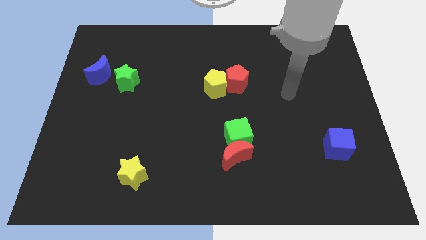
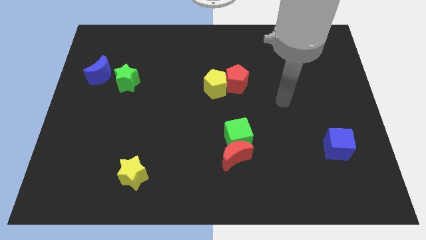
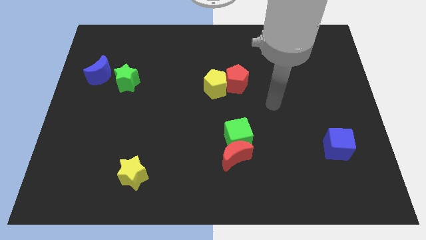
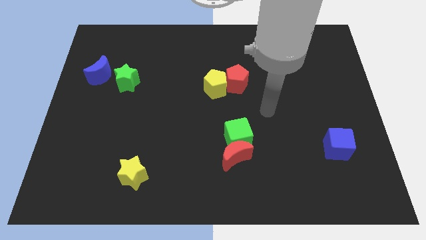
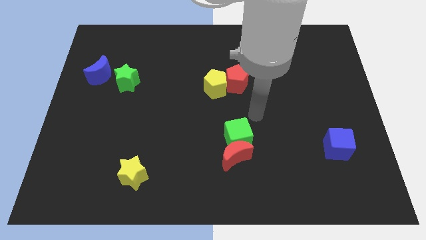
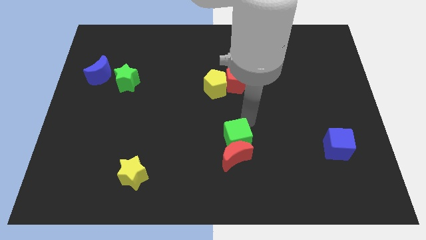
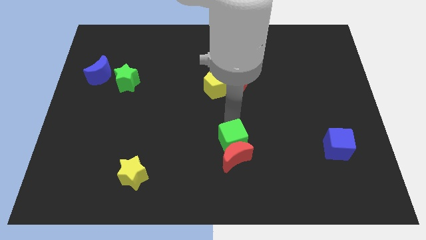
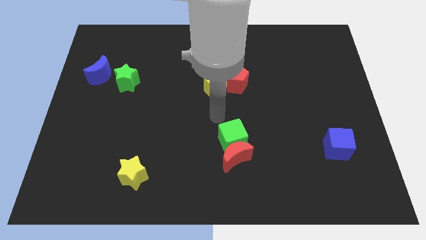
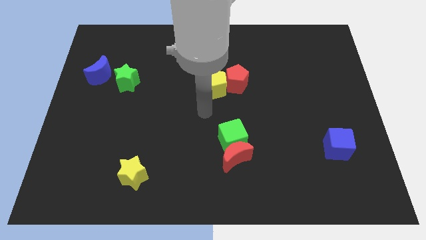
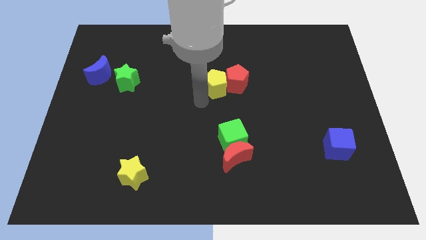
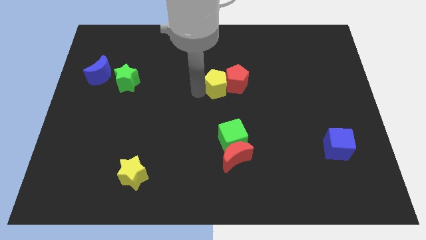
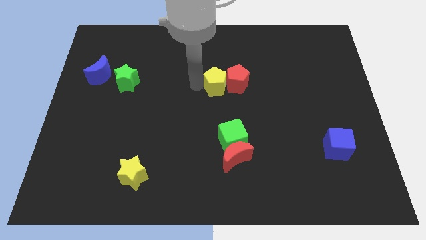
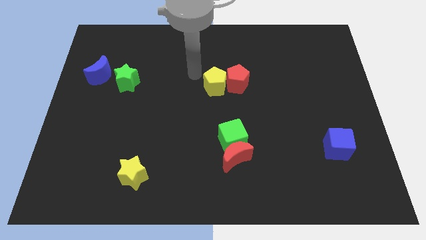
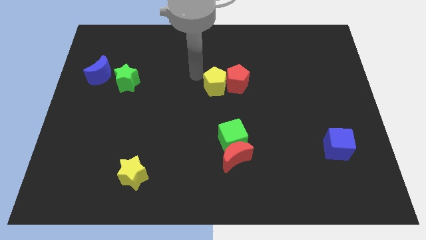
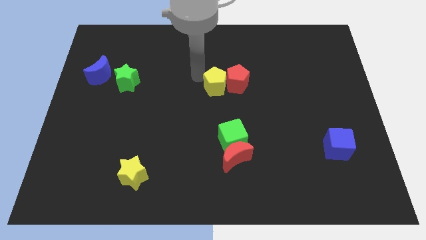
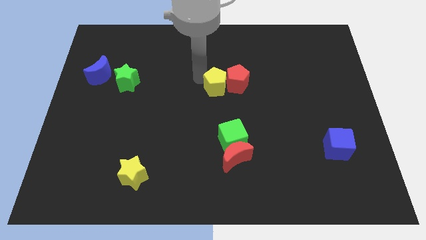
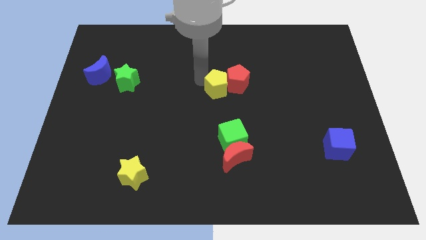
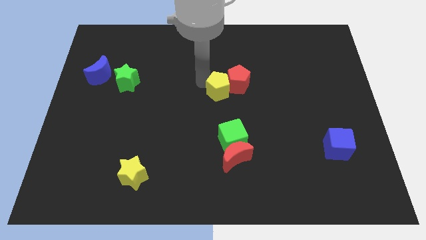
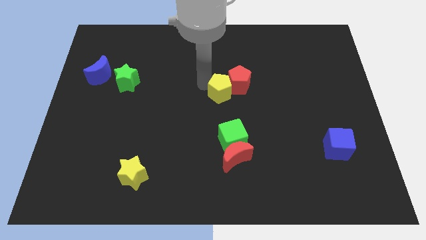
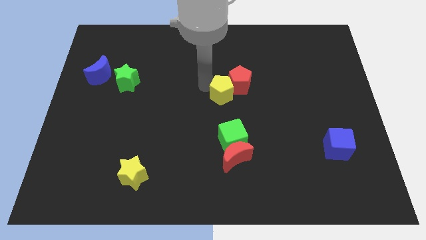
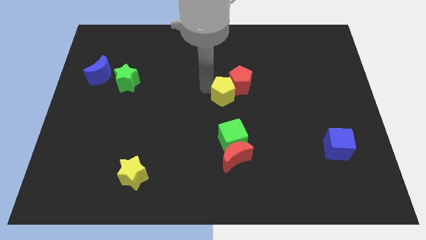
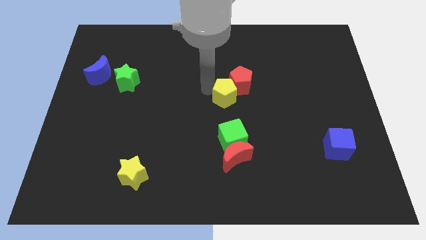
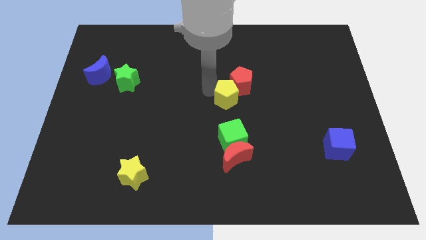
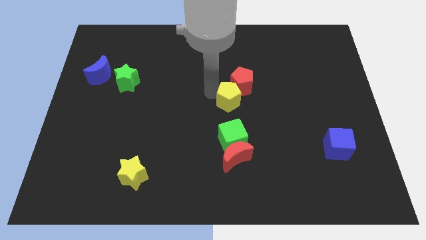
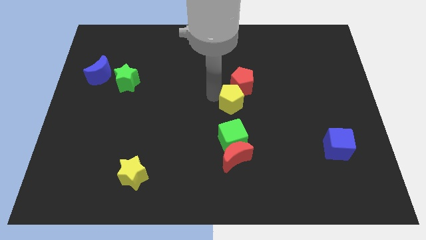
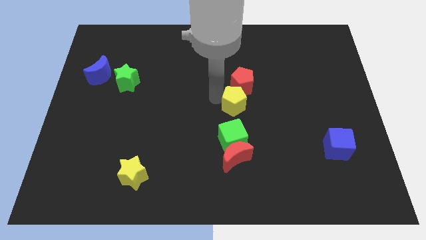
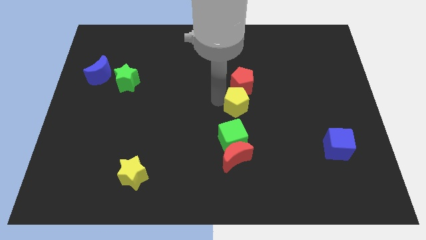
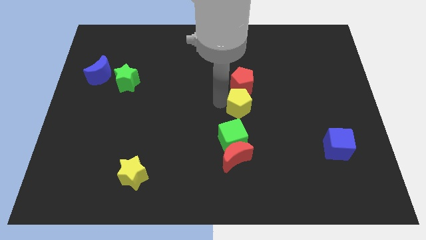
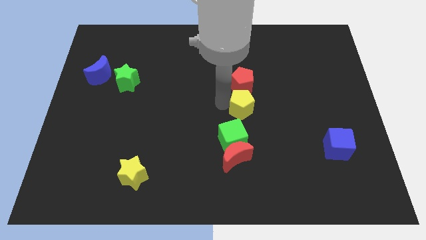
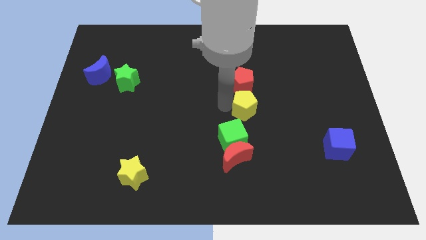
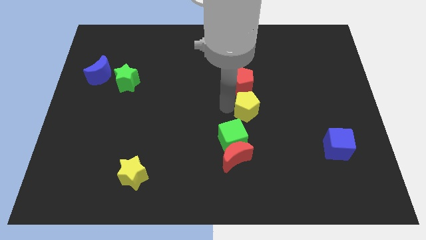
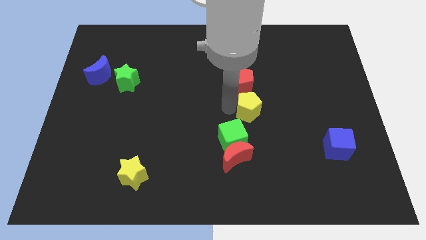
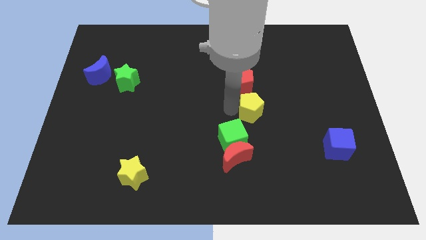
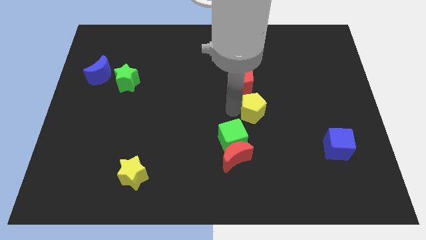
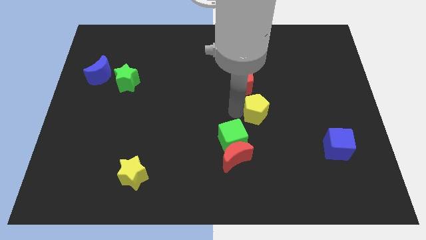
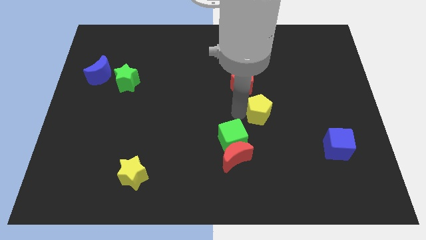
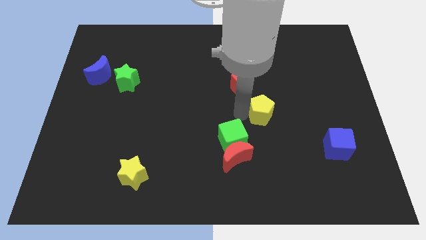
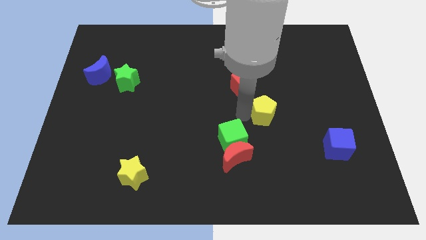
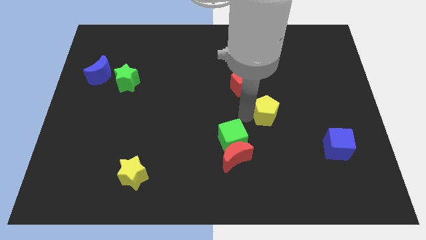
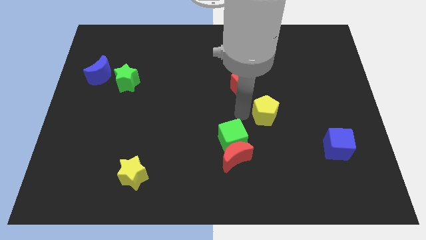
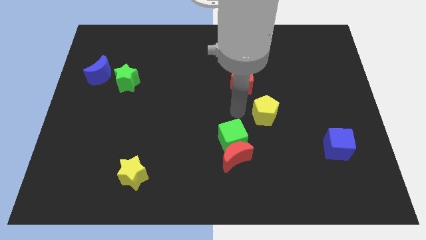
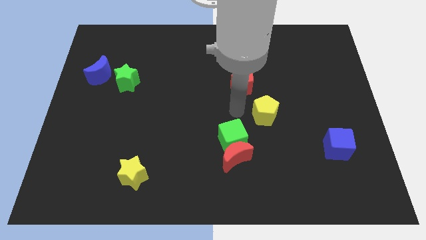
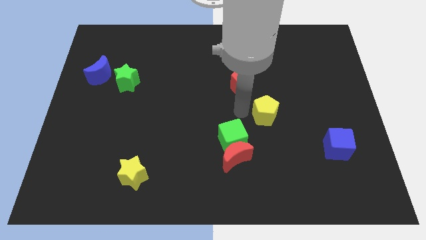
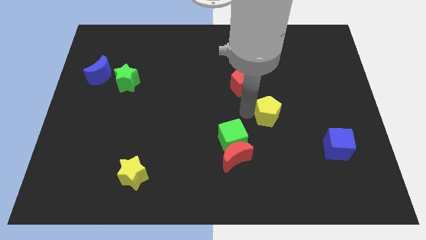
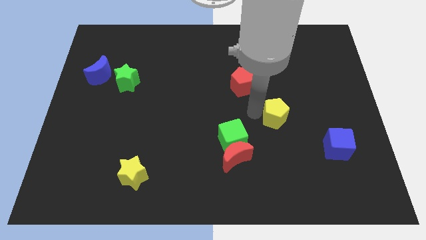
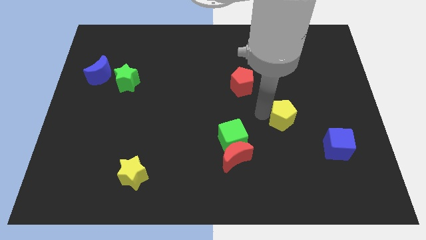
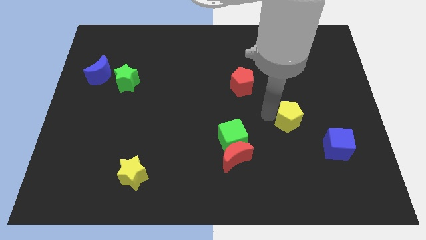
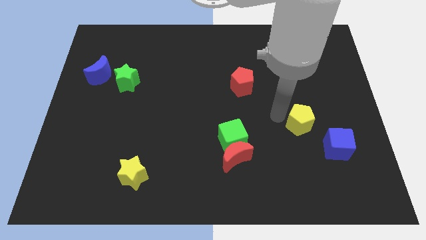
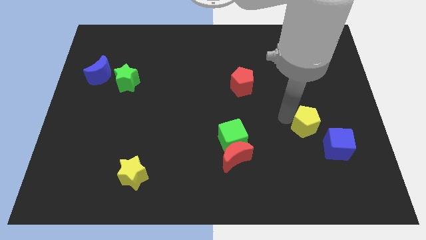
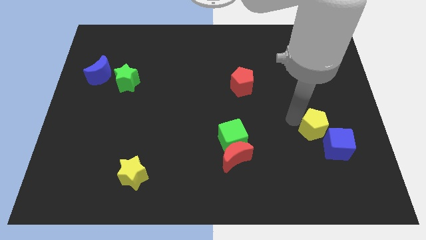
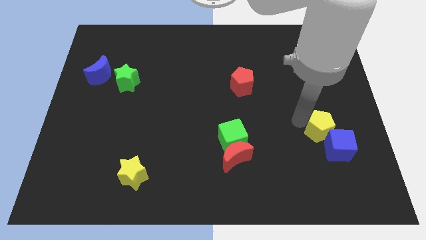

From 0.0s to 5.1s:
put the yellow pentagon towards the blue cube

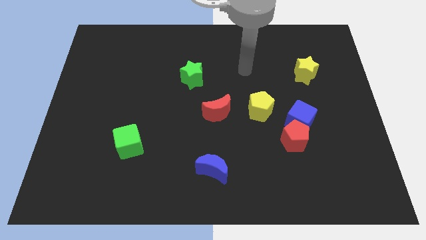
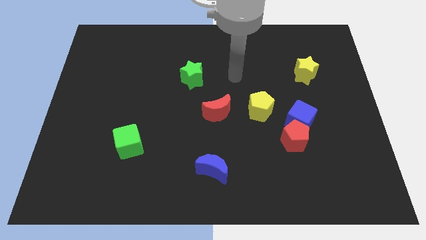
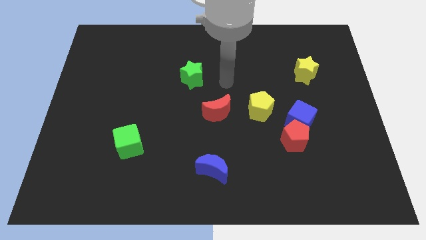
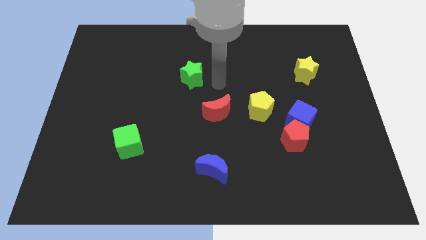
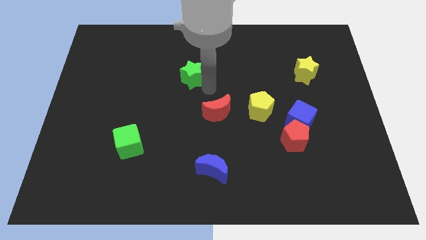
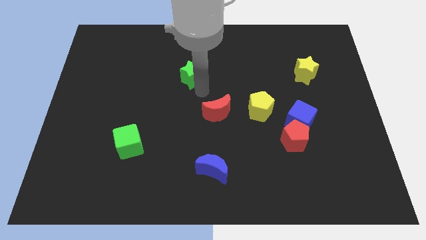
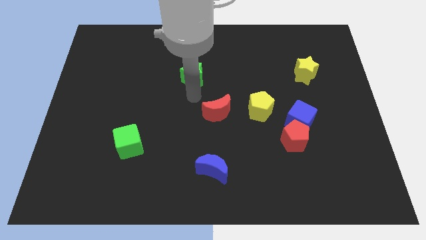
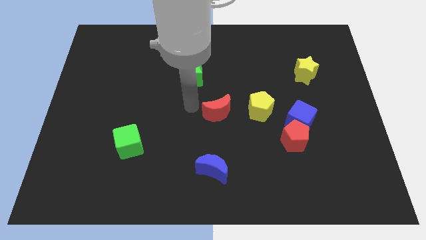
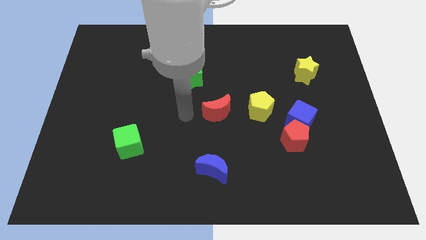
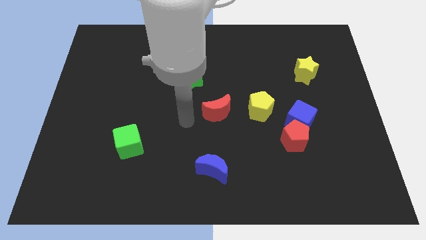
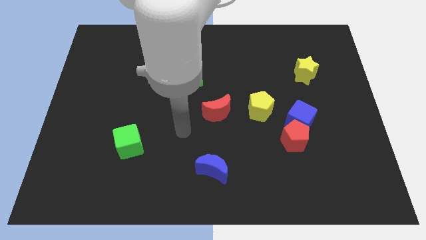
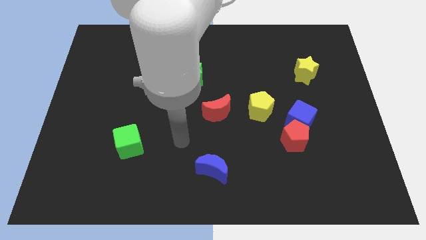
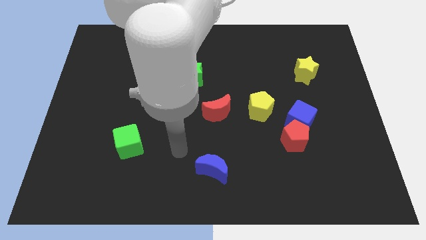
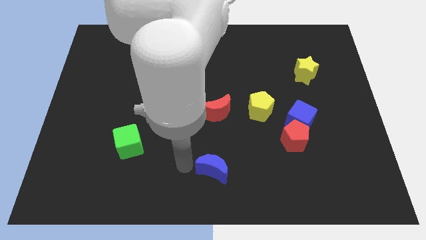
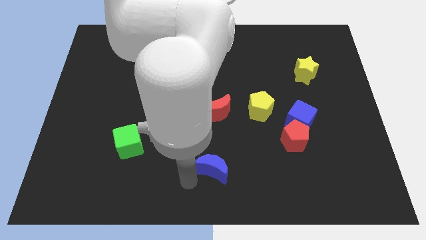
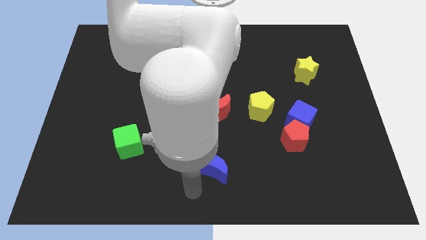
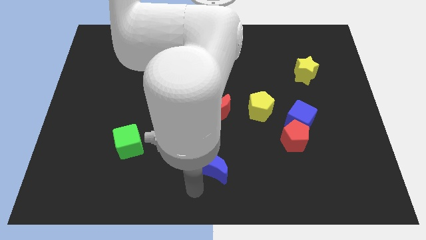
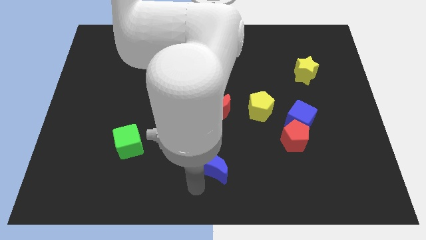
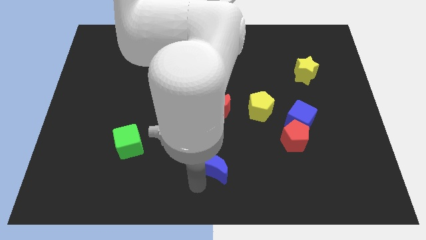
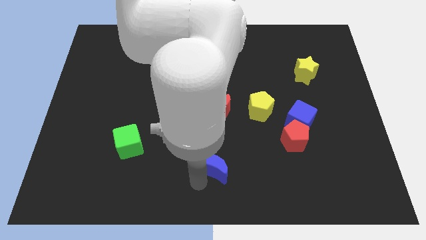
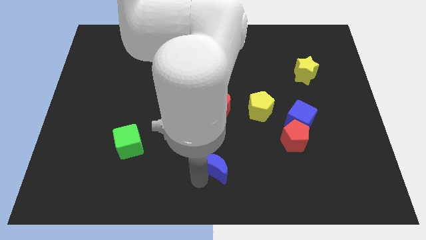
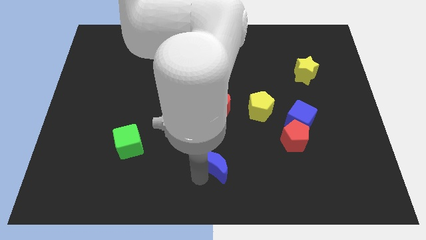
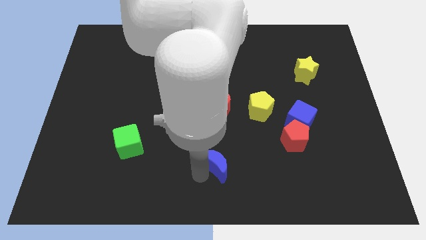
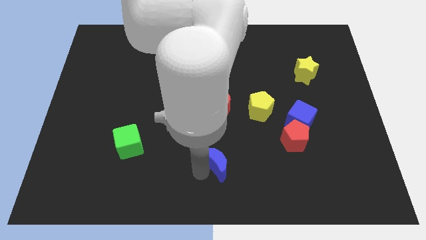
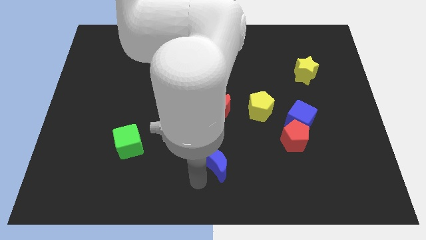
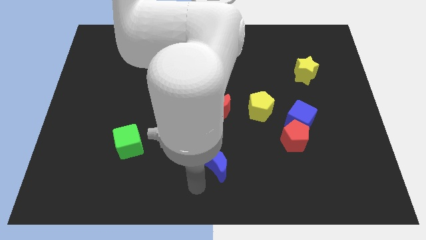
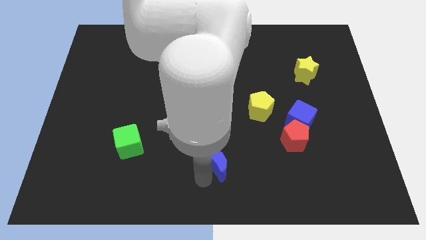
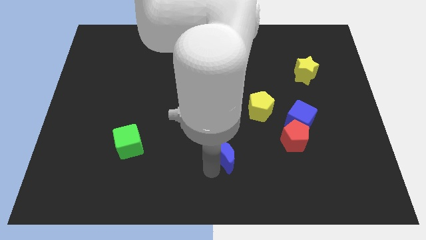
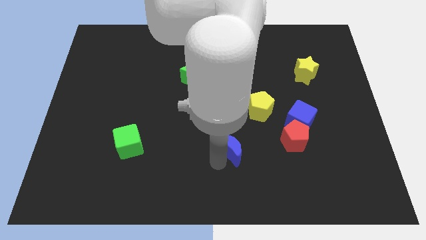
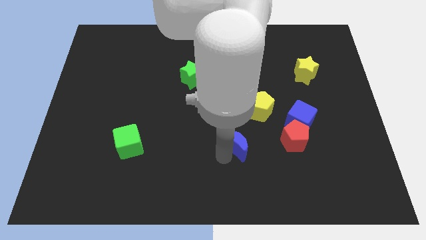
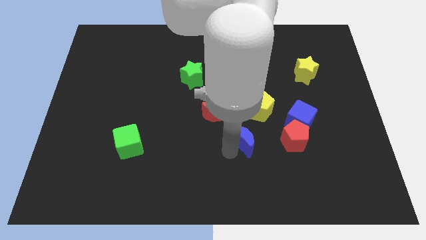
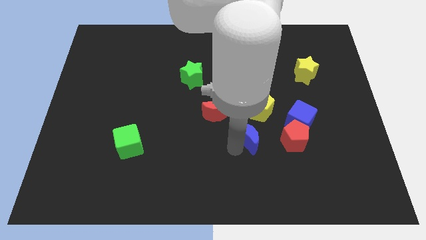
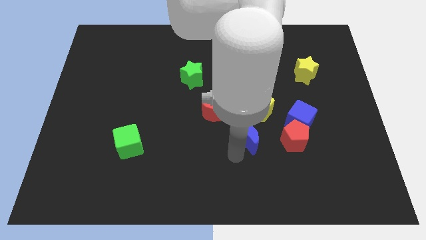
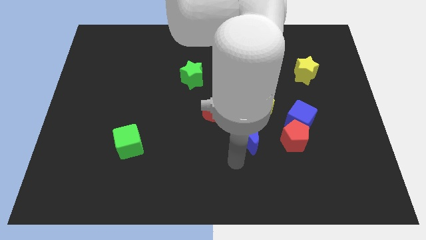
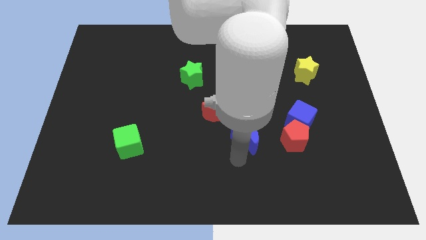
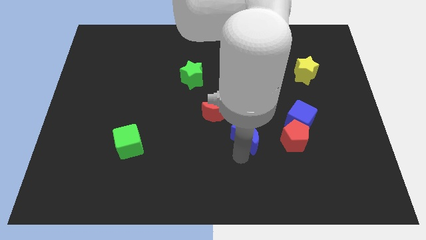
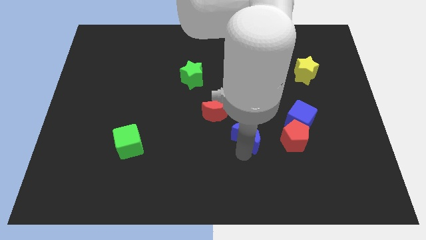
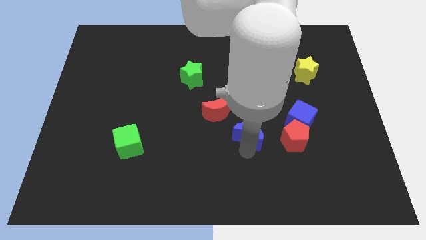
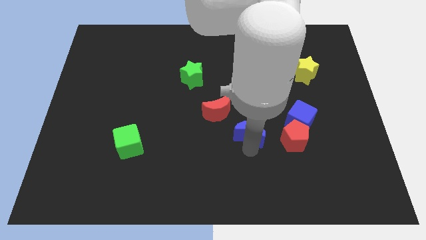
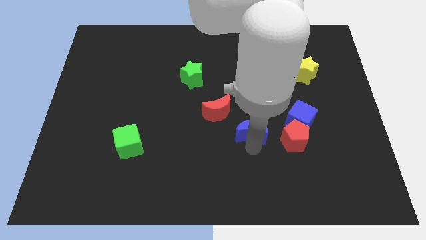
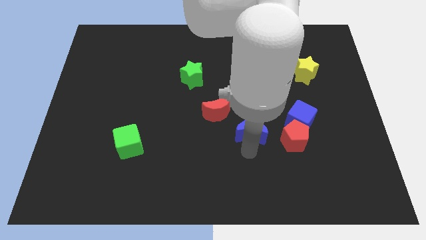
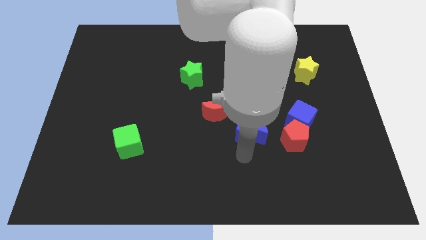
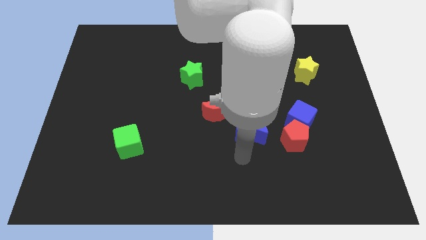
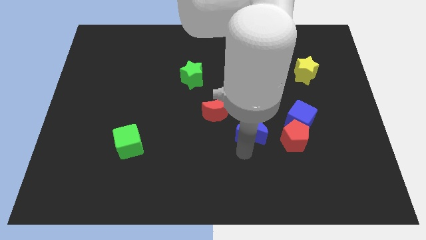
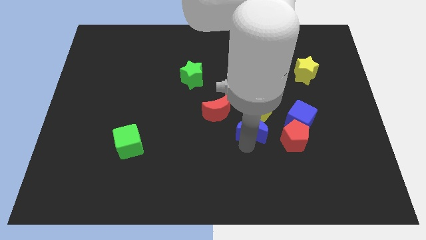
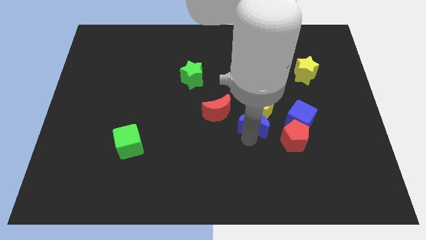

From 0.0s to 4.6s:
slide the blue moon close to the yellow pentagon
